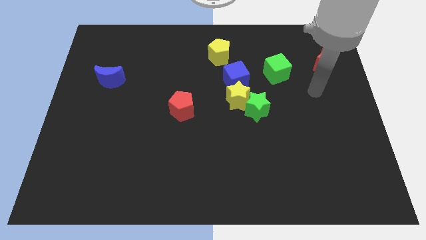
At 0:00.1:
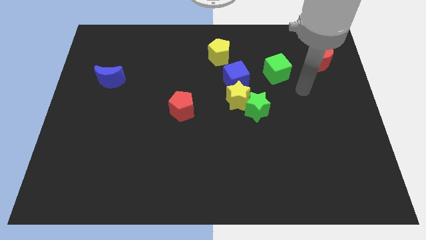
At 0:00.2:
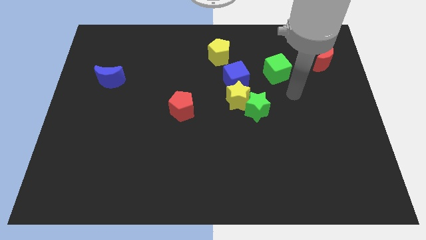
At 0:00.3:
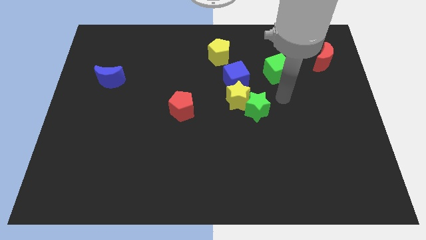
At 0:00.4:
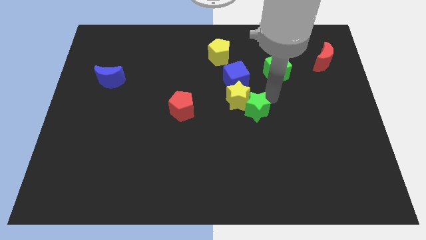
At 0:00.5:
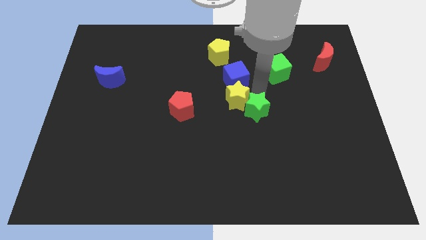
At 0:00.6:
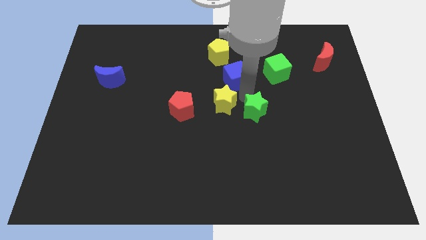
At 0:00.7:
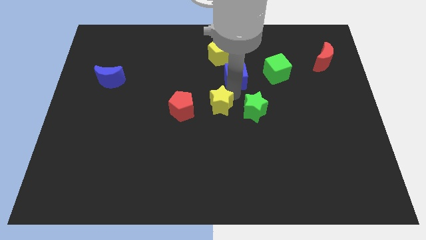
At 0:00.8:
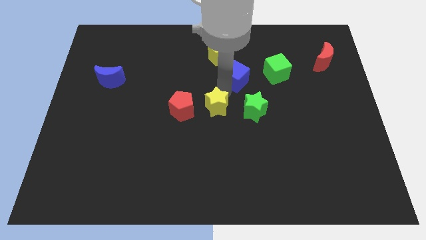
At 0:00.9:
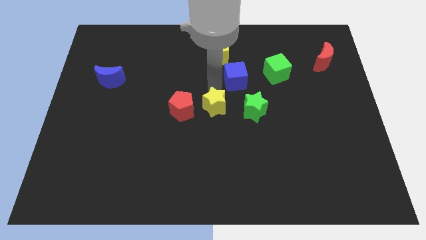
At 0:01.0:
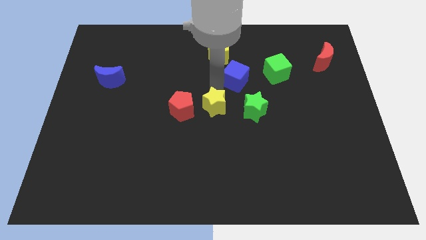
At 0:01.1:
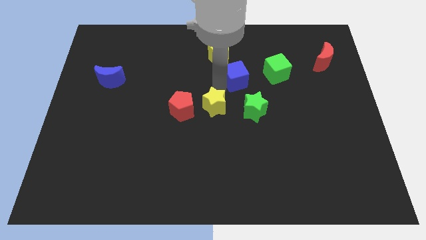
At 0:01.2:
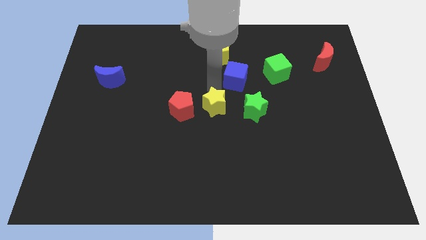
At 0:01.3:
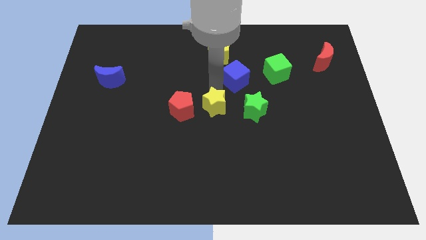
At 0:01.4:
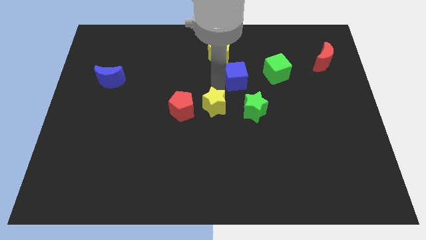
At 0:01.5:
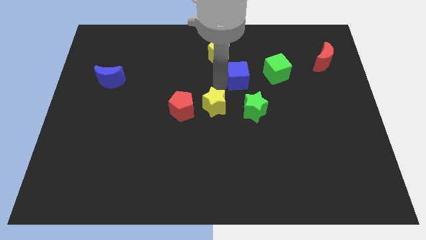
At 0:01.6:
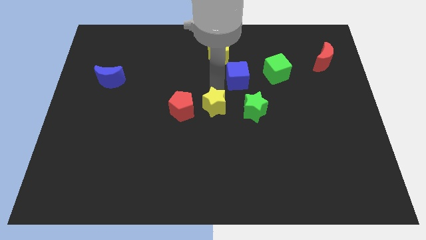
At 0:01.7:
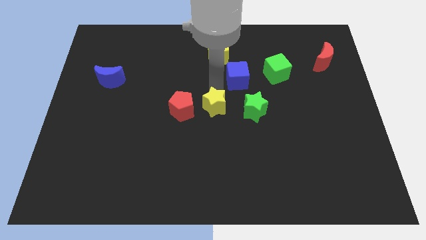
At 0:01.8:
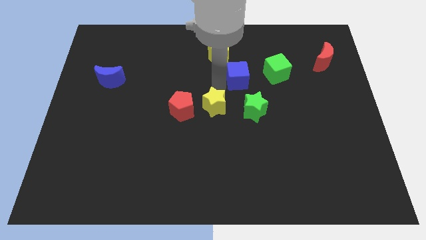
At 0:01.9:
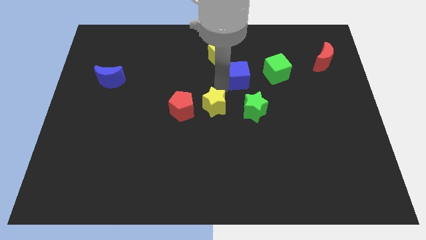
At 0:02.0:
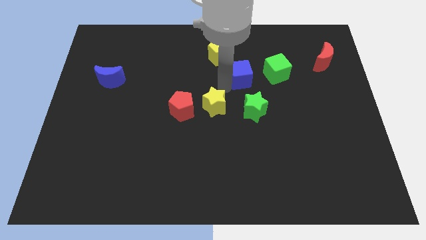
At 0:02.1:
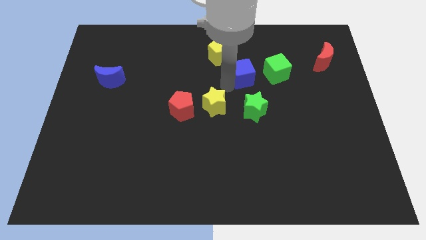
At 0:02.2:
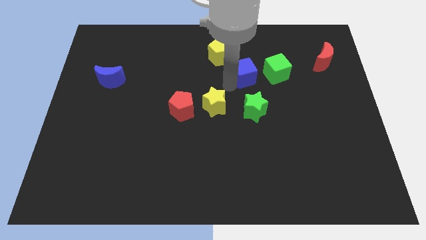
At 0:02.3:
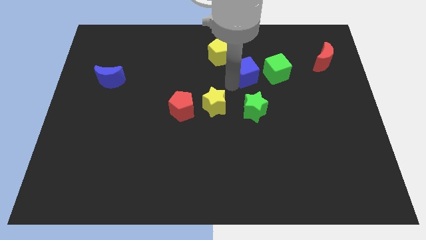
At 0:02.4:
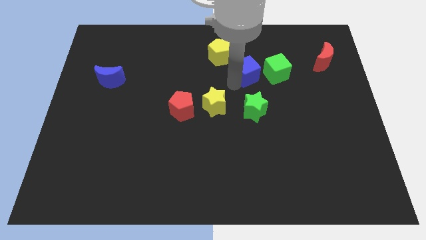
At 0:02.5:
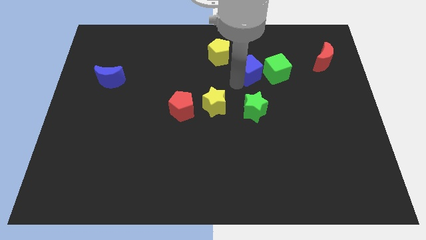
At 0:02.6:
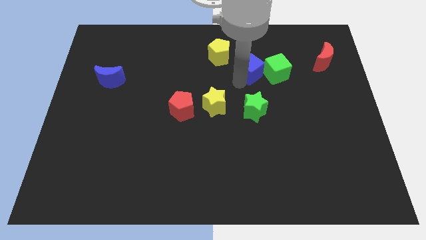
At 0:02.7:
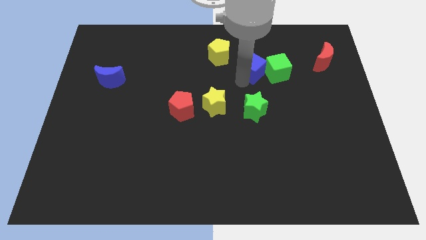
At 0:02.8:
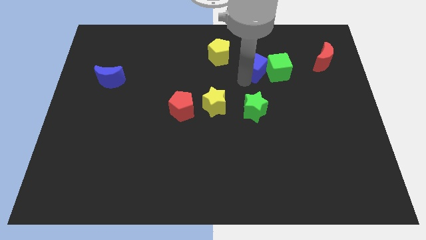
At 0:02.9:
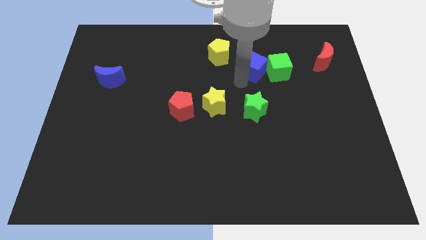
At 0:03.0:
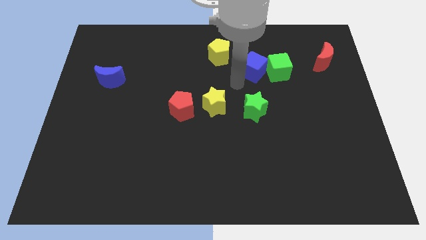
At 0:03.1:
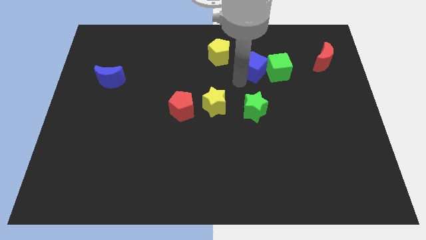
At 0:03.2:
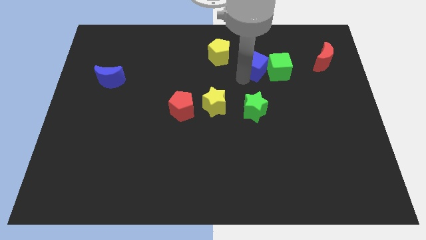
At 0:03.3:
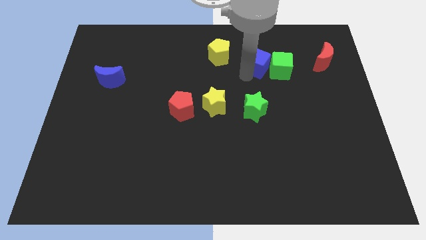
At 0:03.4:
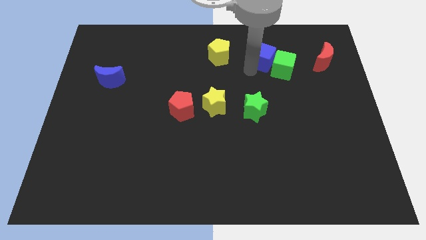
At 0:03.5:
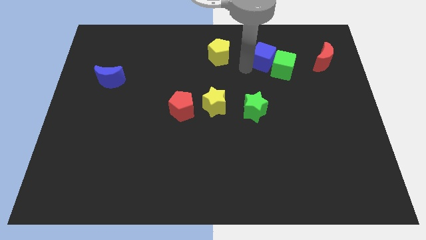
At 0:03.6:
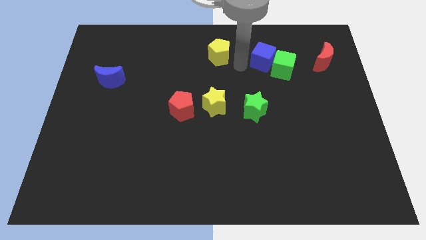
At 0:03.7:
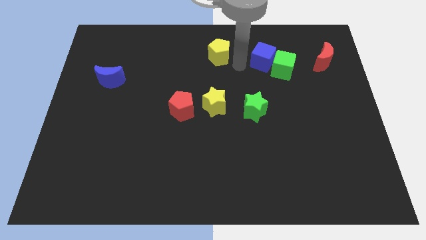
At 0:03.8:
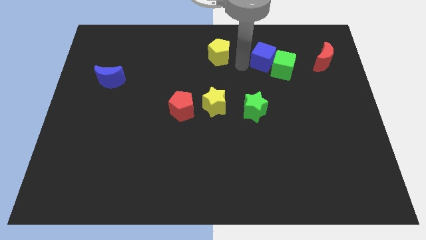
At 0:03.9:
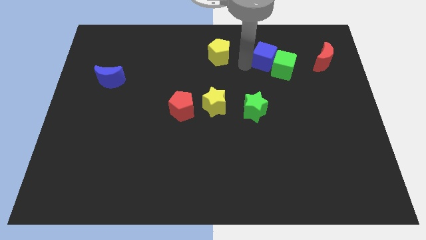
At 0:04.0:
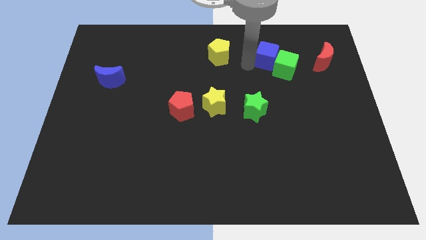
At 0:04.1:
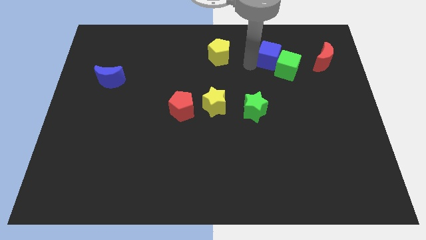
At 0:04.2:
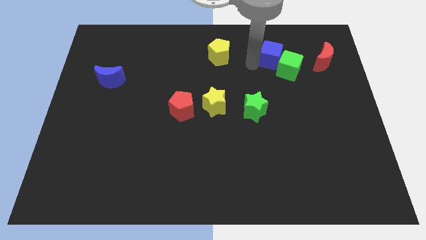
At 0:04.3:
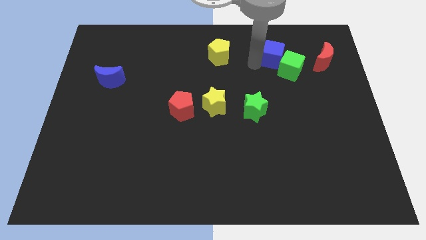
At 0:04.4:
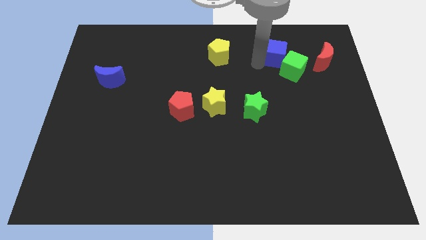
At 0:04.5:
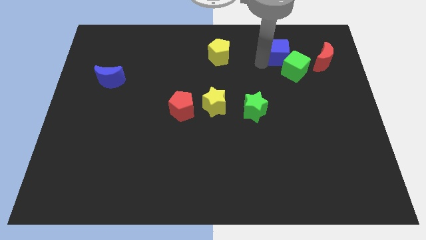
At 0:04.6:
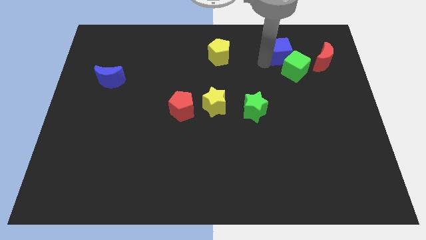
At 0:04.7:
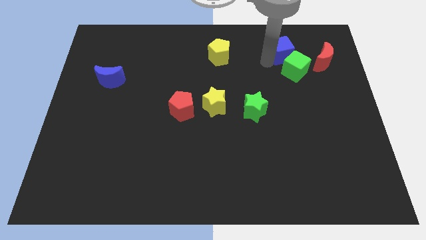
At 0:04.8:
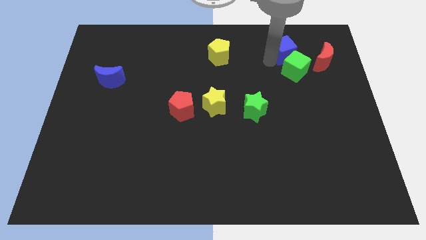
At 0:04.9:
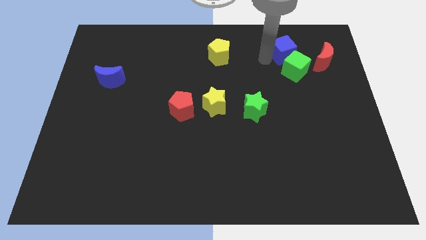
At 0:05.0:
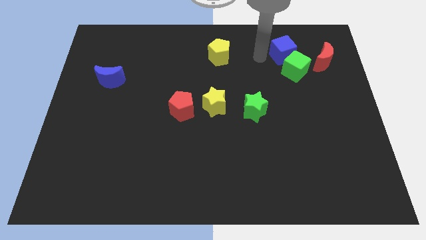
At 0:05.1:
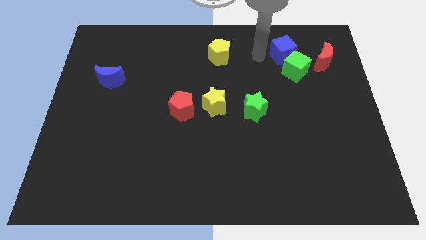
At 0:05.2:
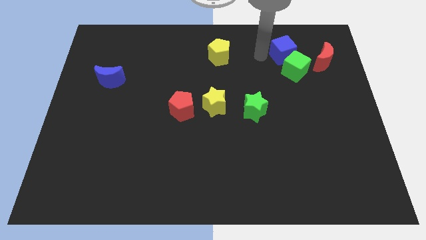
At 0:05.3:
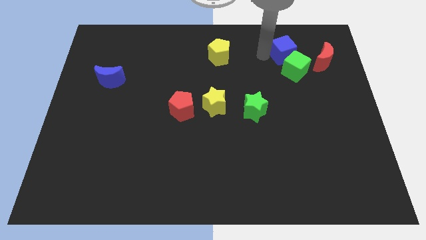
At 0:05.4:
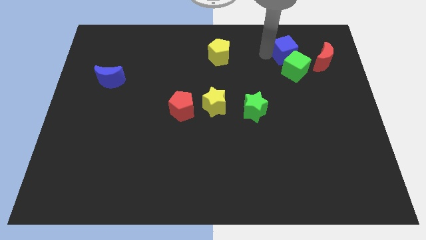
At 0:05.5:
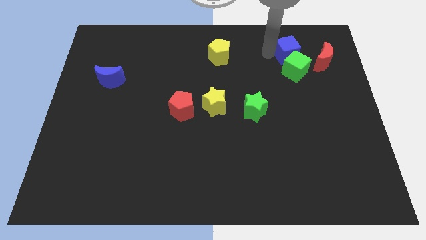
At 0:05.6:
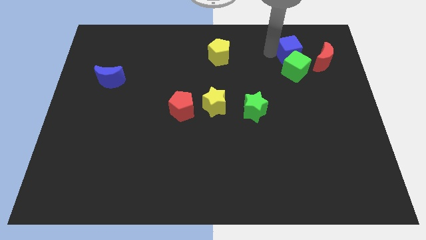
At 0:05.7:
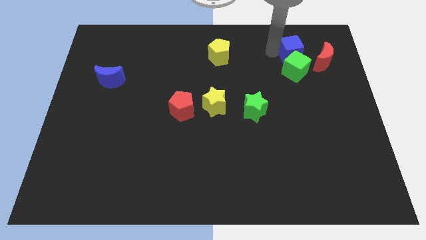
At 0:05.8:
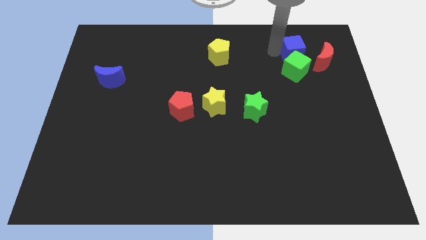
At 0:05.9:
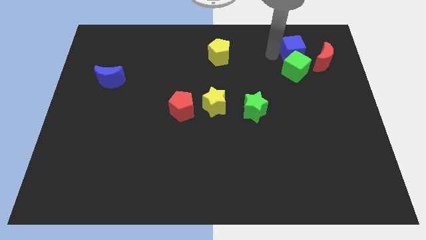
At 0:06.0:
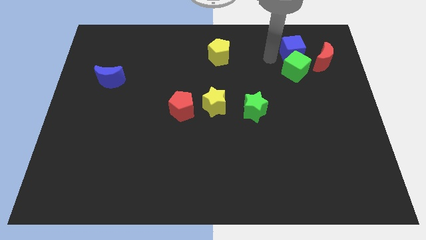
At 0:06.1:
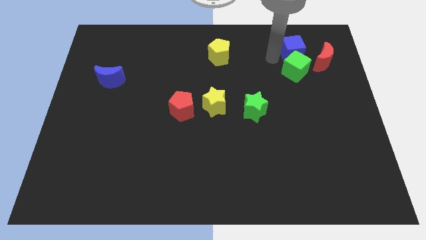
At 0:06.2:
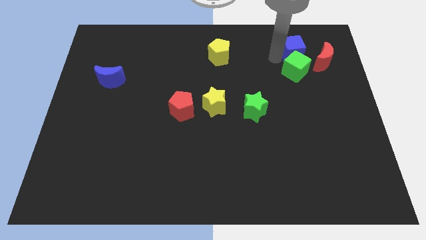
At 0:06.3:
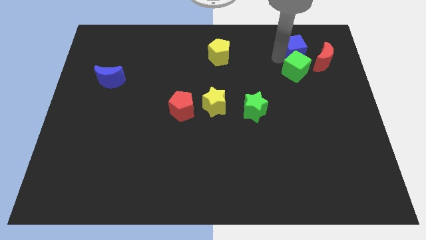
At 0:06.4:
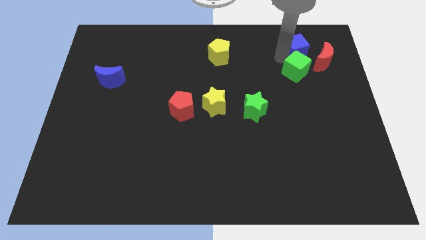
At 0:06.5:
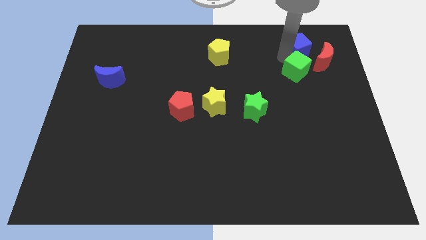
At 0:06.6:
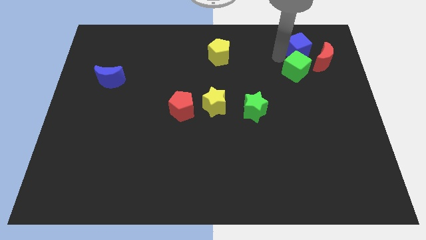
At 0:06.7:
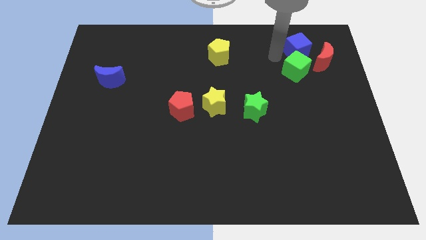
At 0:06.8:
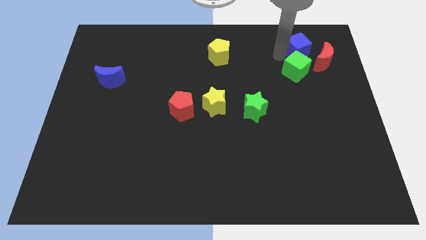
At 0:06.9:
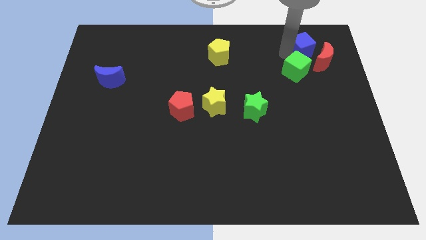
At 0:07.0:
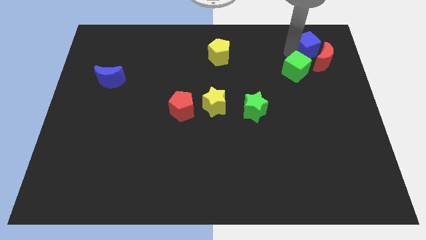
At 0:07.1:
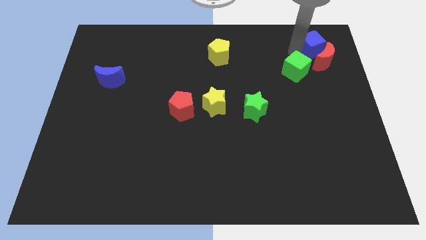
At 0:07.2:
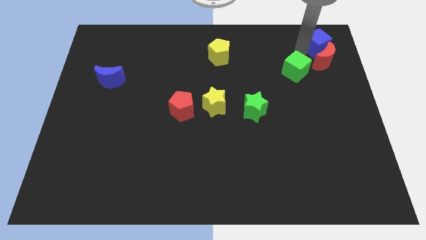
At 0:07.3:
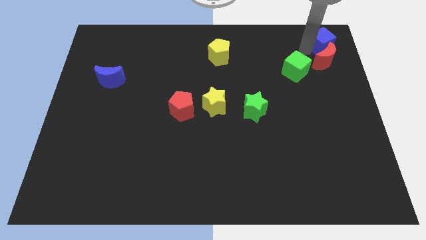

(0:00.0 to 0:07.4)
slide the blue cube to the top right of the board
